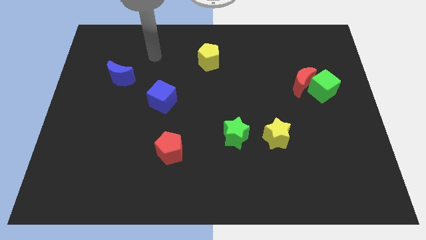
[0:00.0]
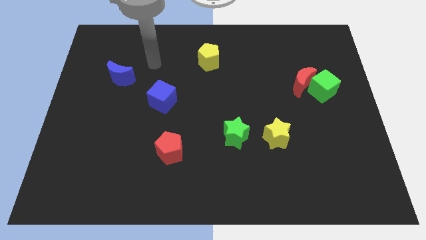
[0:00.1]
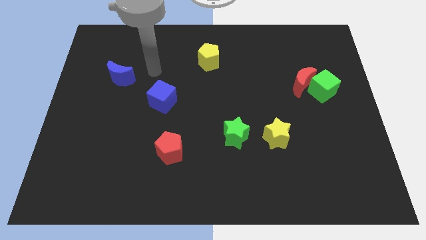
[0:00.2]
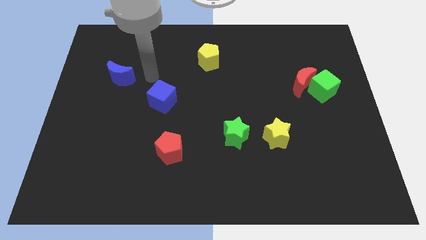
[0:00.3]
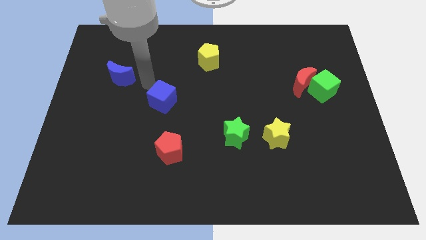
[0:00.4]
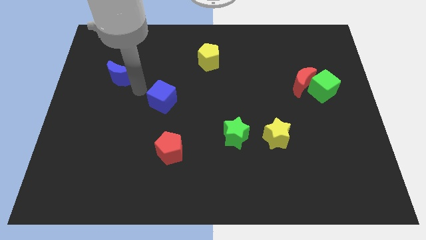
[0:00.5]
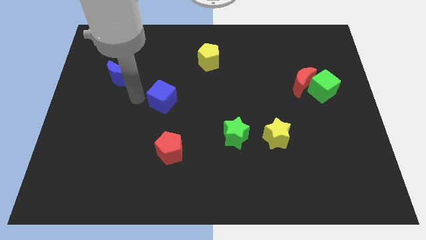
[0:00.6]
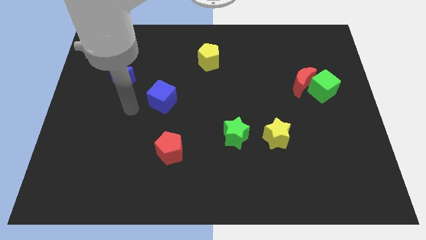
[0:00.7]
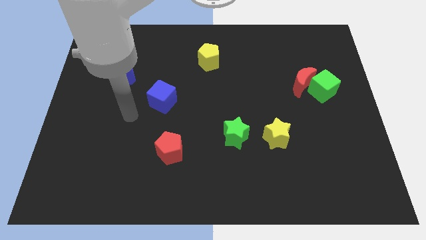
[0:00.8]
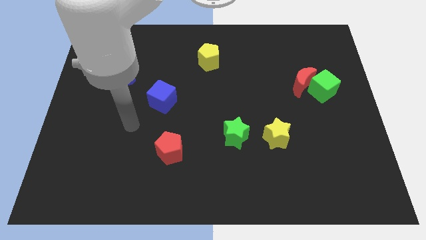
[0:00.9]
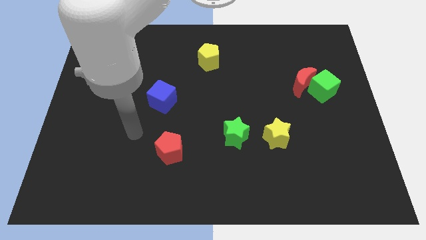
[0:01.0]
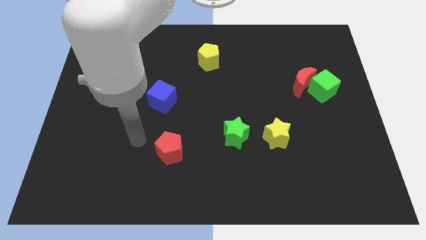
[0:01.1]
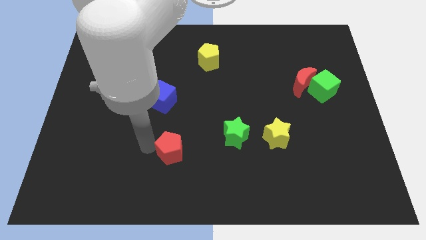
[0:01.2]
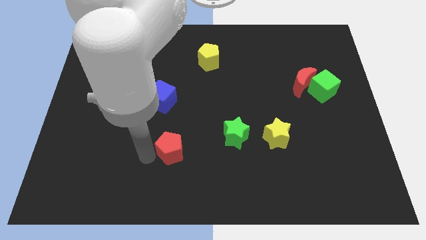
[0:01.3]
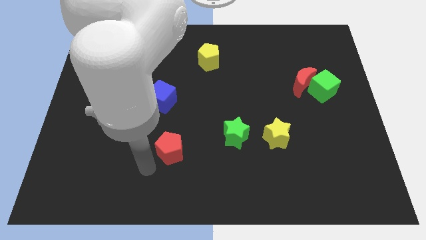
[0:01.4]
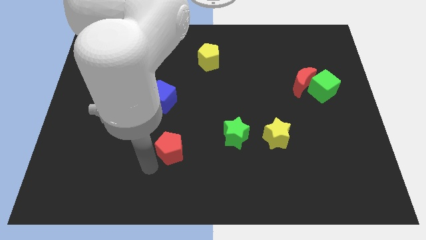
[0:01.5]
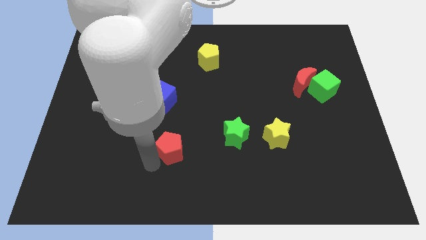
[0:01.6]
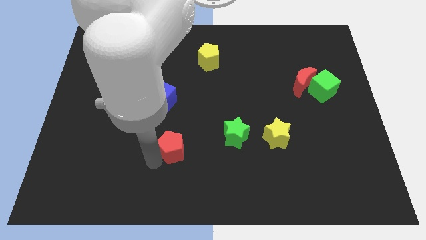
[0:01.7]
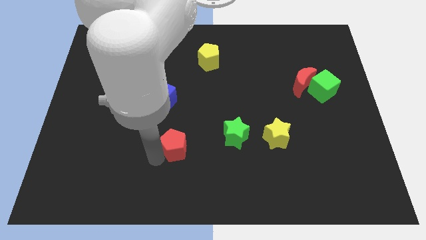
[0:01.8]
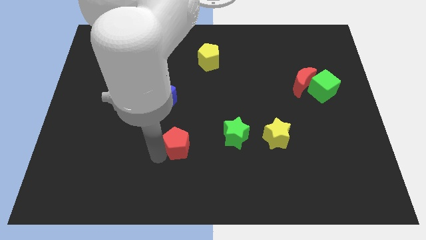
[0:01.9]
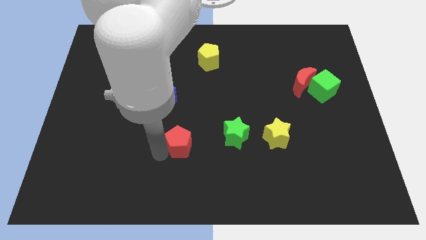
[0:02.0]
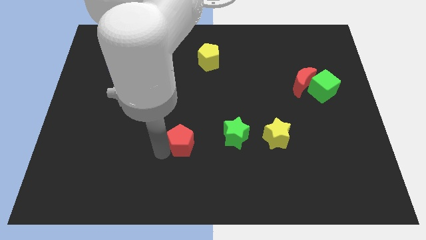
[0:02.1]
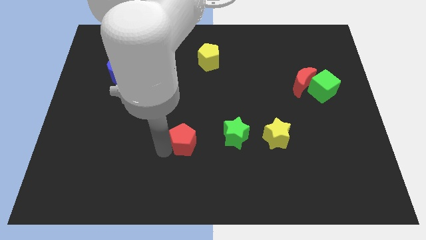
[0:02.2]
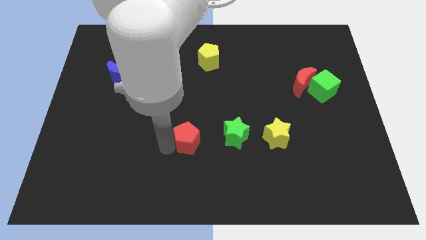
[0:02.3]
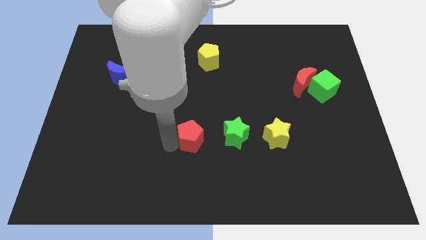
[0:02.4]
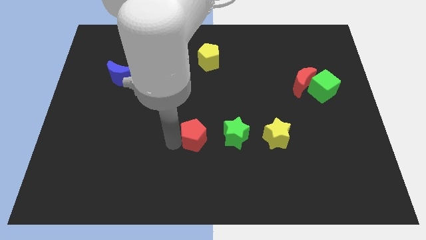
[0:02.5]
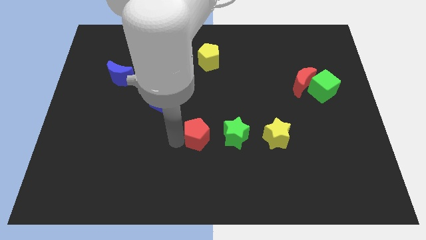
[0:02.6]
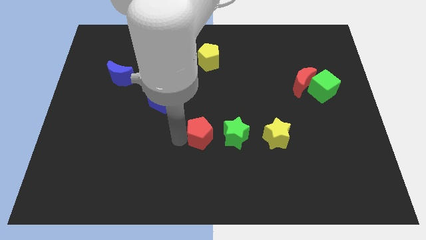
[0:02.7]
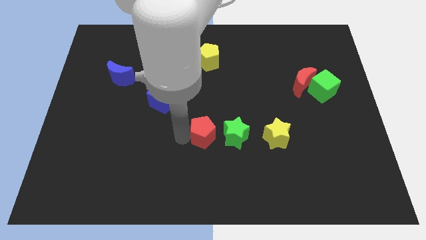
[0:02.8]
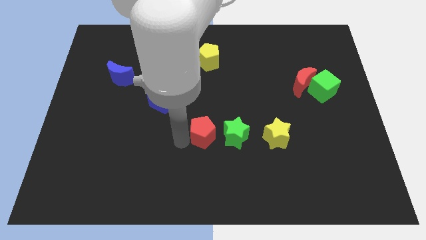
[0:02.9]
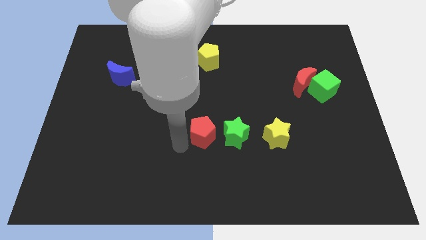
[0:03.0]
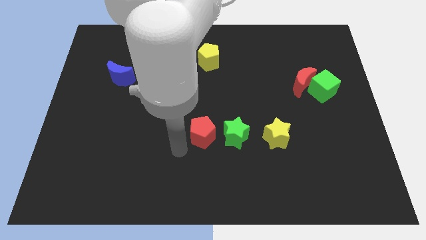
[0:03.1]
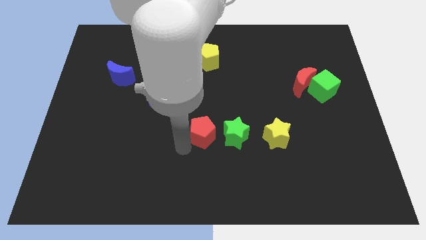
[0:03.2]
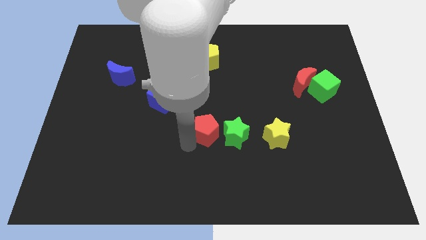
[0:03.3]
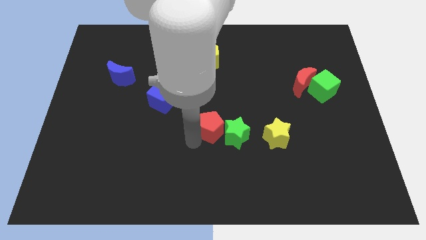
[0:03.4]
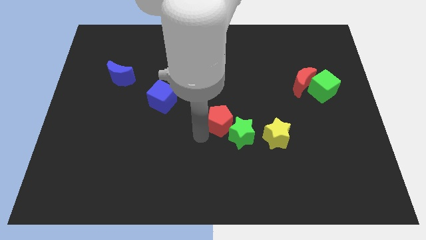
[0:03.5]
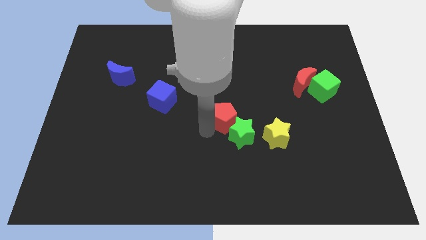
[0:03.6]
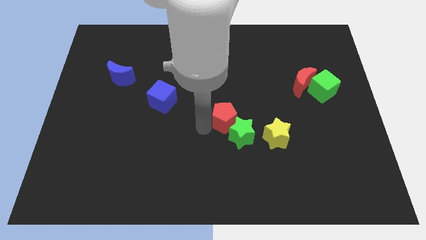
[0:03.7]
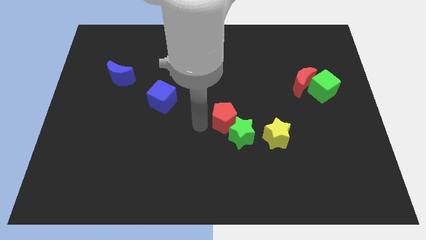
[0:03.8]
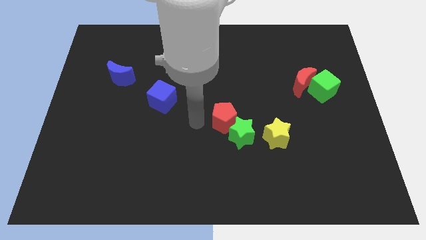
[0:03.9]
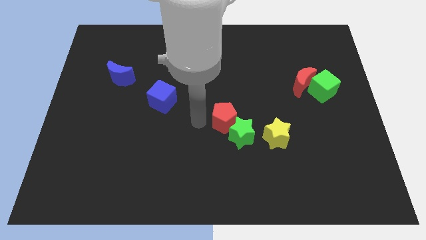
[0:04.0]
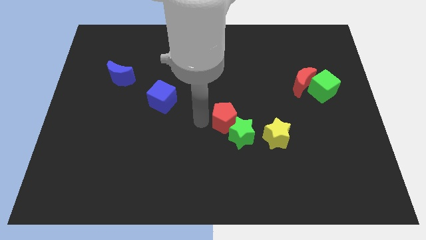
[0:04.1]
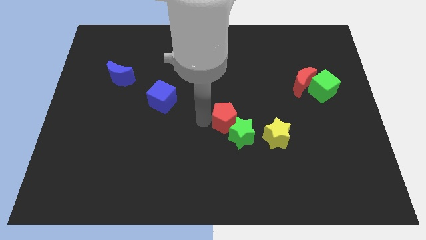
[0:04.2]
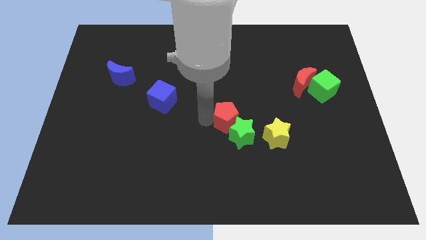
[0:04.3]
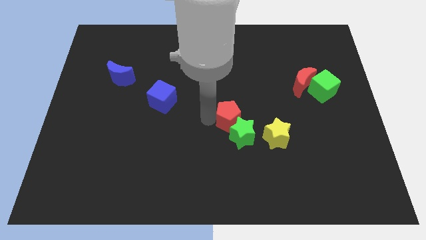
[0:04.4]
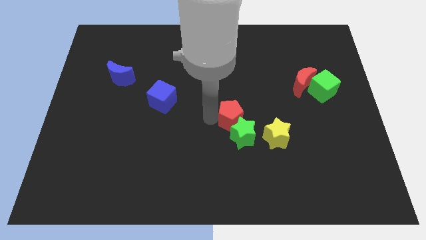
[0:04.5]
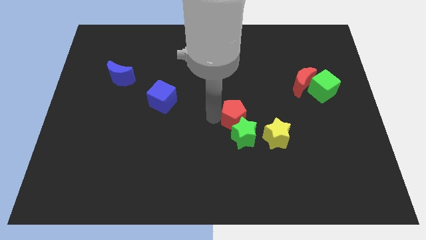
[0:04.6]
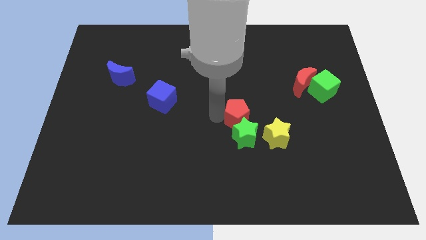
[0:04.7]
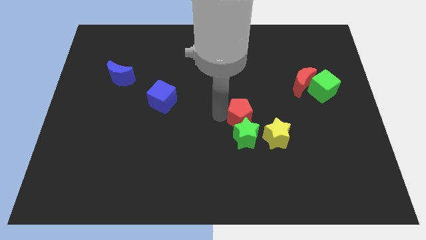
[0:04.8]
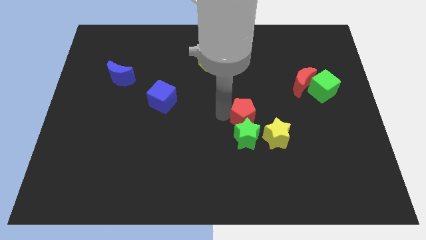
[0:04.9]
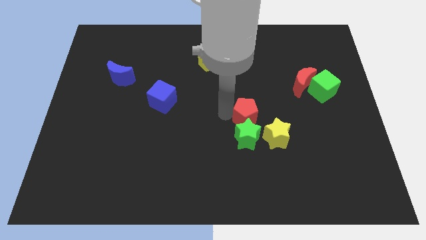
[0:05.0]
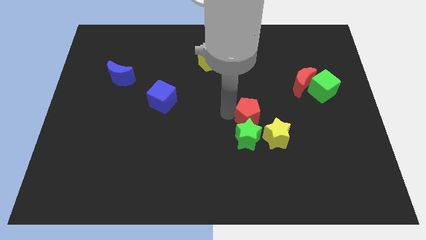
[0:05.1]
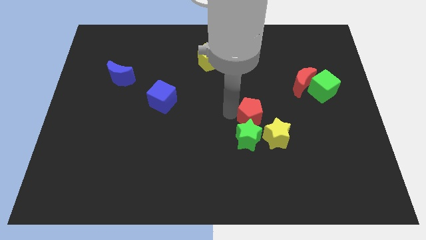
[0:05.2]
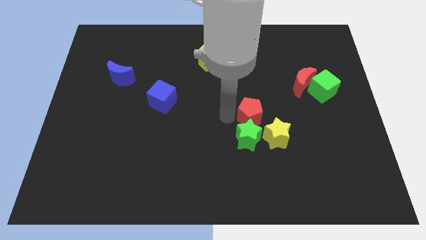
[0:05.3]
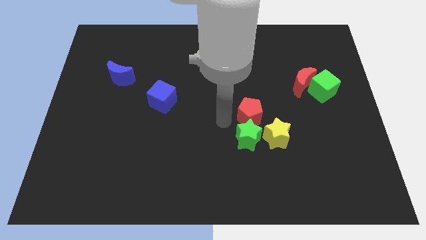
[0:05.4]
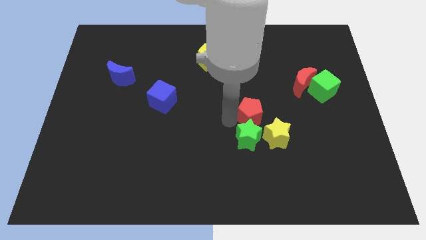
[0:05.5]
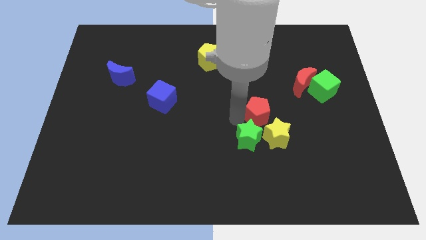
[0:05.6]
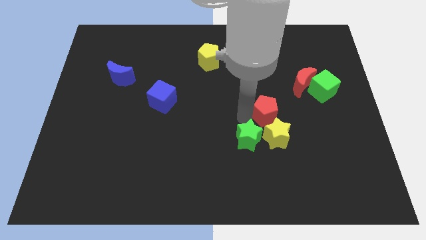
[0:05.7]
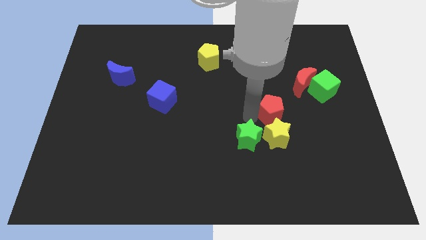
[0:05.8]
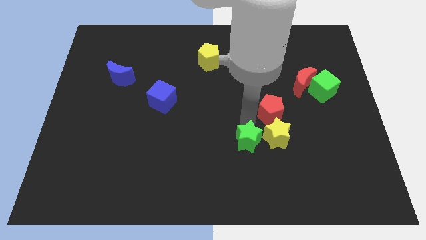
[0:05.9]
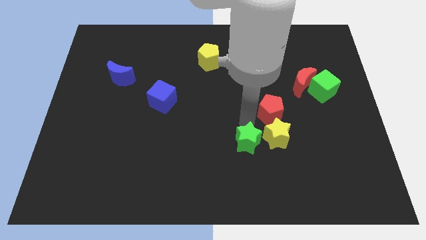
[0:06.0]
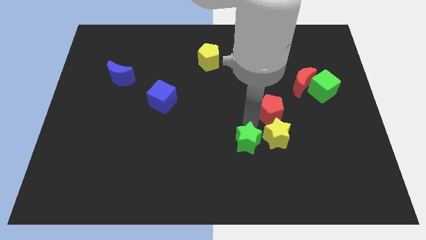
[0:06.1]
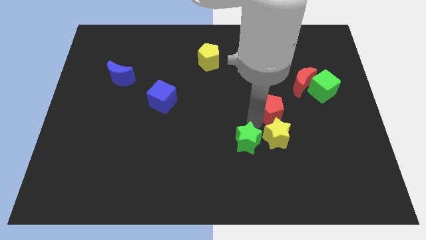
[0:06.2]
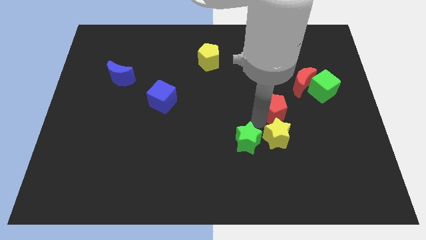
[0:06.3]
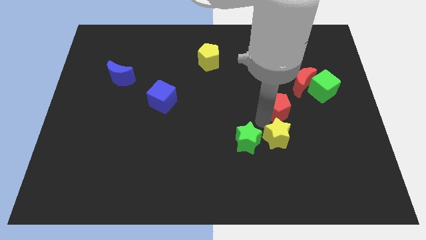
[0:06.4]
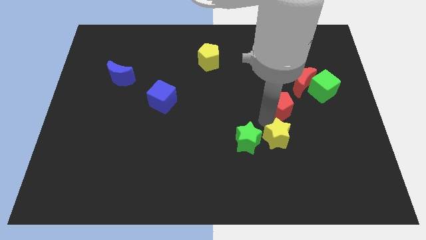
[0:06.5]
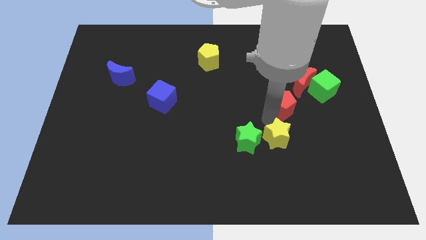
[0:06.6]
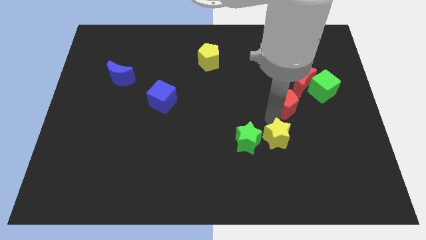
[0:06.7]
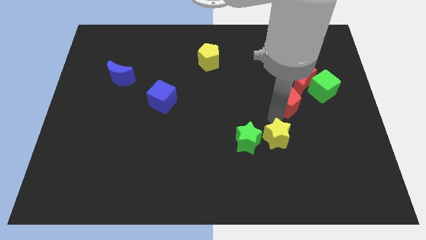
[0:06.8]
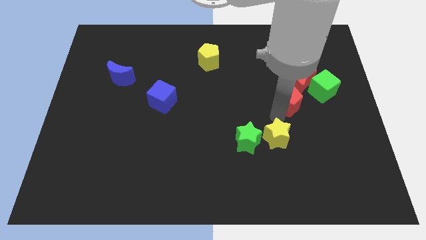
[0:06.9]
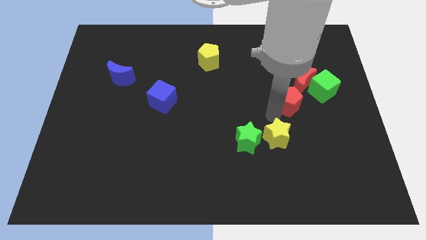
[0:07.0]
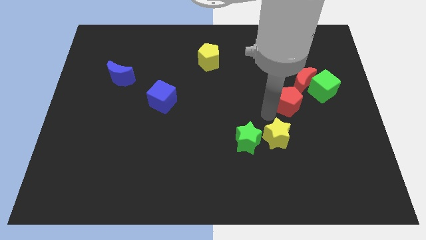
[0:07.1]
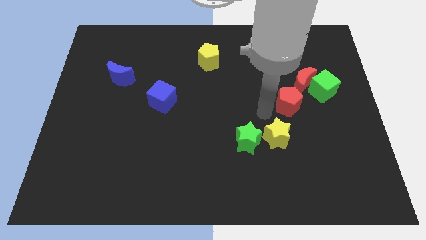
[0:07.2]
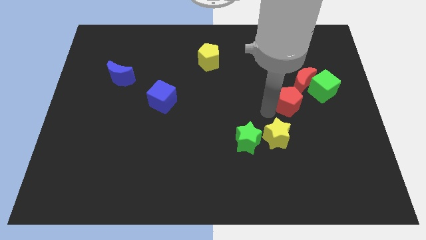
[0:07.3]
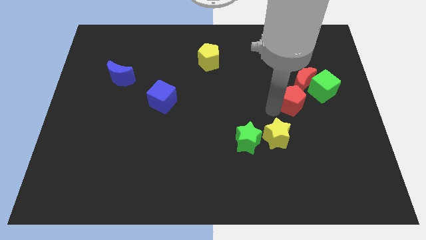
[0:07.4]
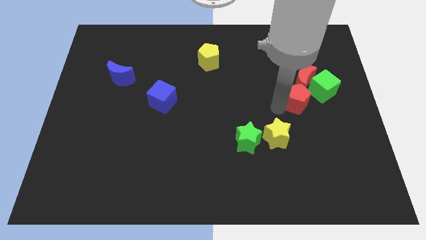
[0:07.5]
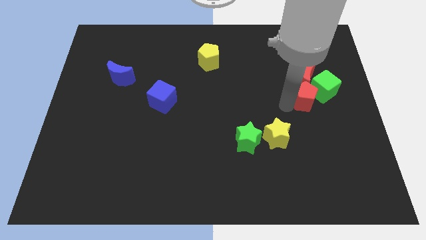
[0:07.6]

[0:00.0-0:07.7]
slide the red pentagon towards the green cube
